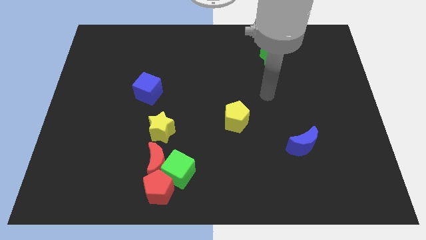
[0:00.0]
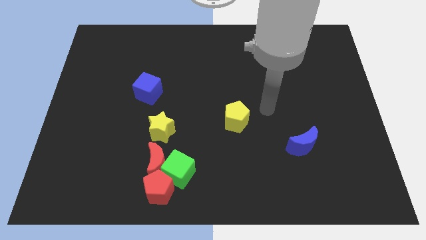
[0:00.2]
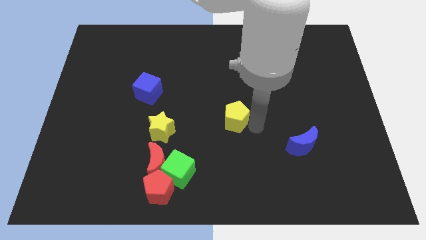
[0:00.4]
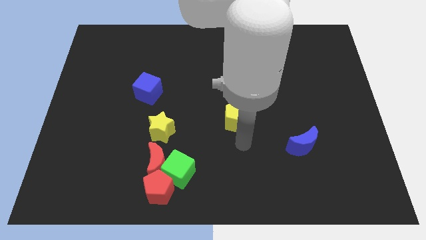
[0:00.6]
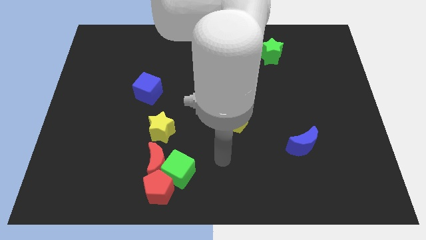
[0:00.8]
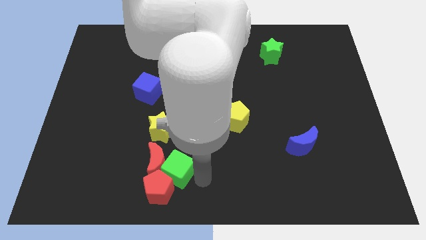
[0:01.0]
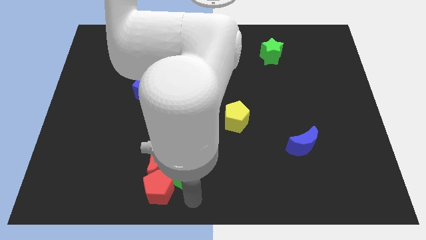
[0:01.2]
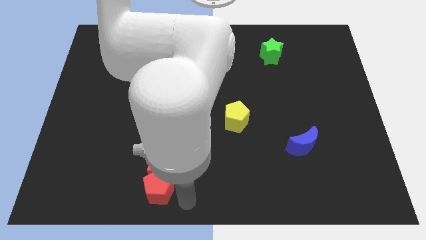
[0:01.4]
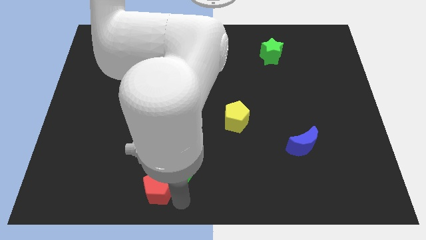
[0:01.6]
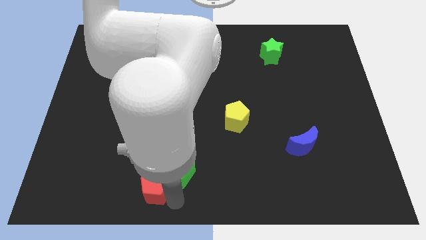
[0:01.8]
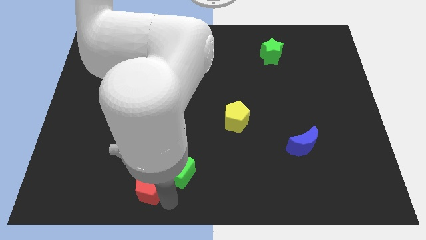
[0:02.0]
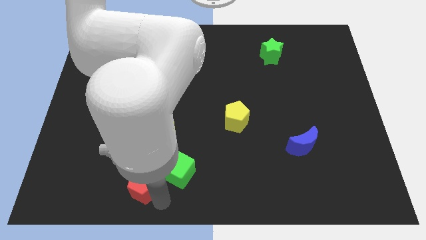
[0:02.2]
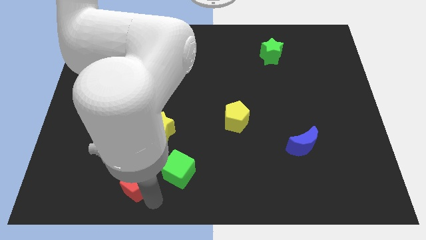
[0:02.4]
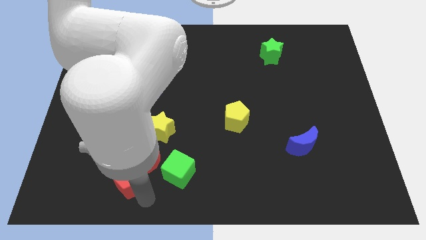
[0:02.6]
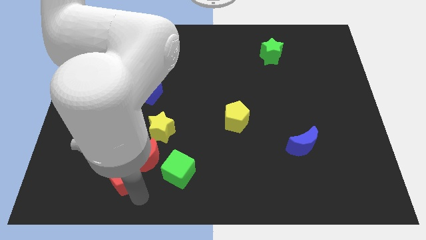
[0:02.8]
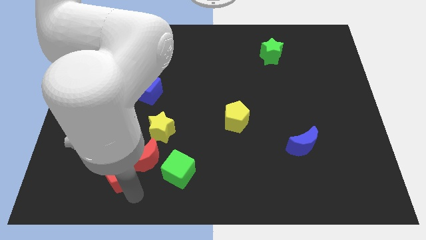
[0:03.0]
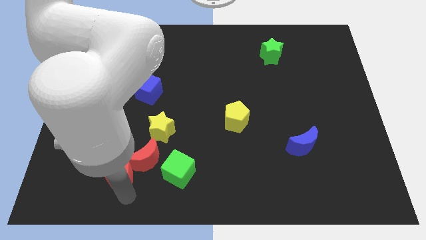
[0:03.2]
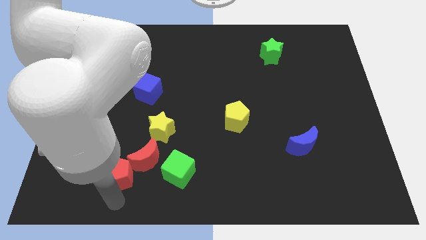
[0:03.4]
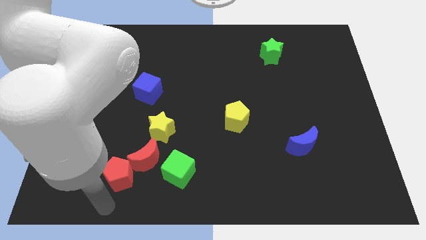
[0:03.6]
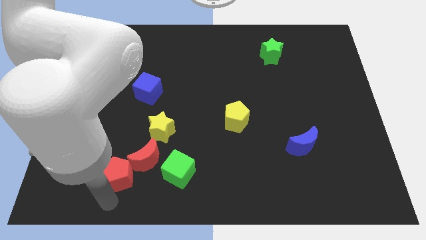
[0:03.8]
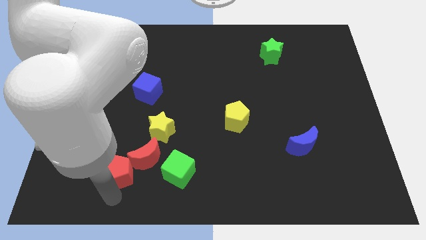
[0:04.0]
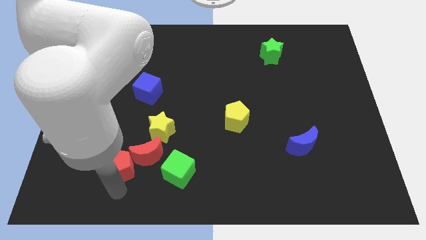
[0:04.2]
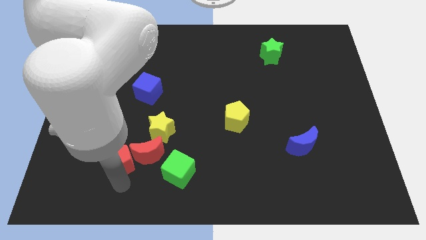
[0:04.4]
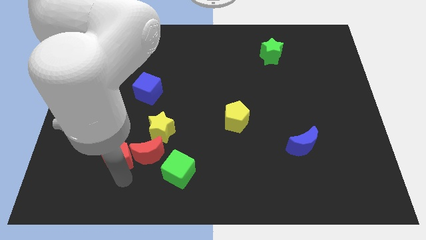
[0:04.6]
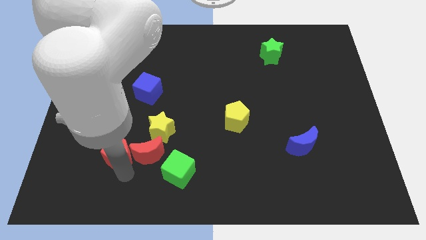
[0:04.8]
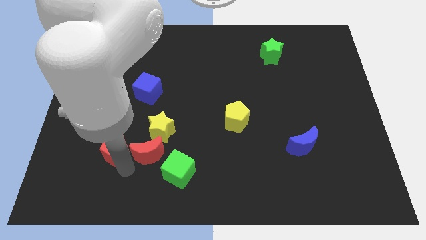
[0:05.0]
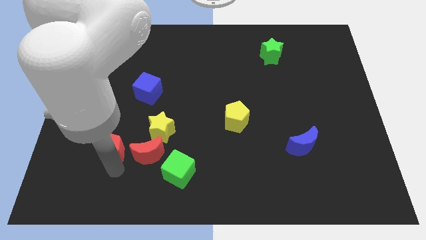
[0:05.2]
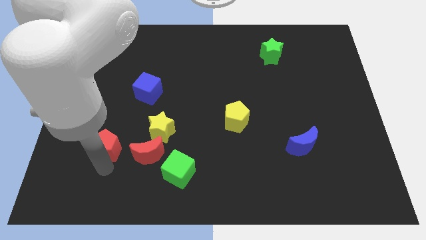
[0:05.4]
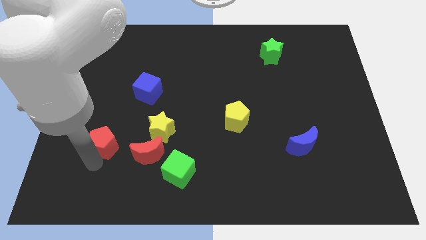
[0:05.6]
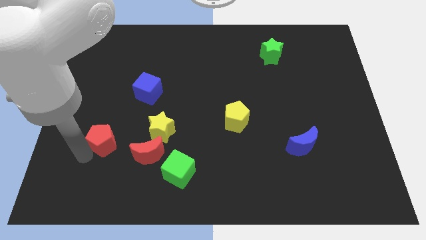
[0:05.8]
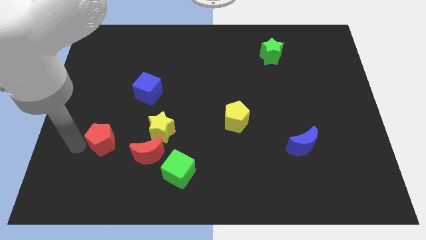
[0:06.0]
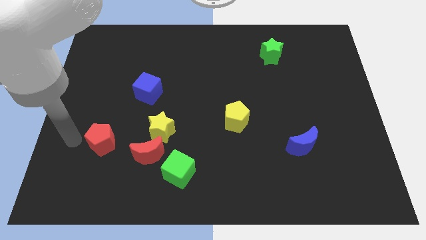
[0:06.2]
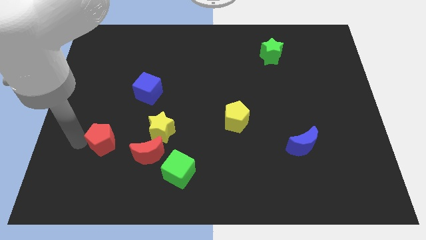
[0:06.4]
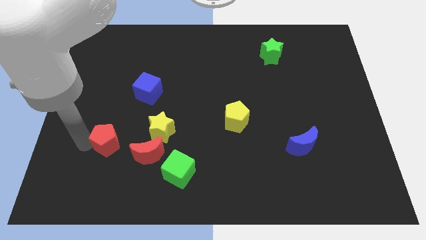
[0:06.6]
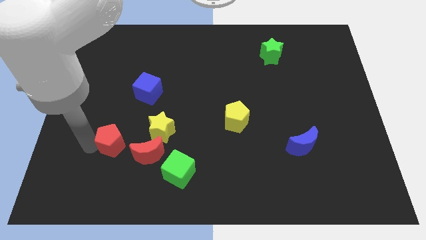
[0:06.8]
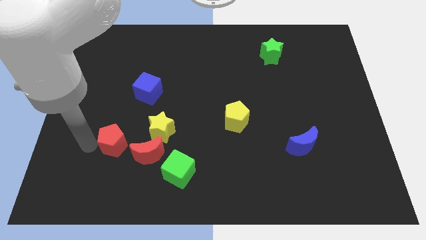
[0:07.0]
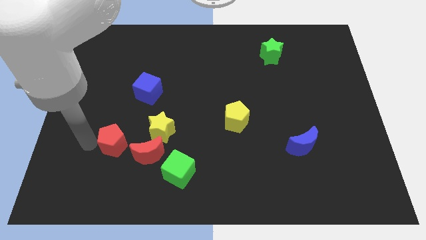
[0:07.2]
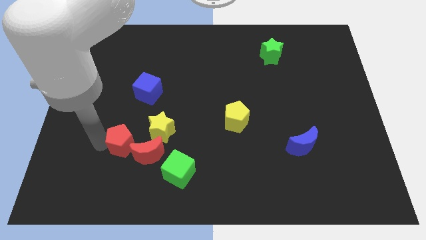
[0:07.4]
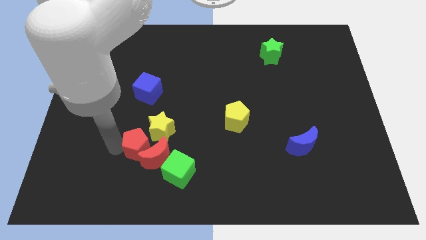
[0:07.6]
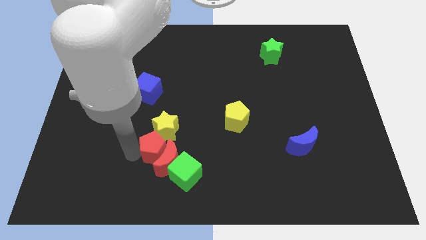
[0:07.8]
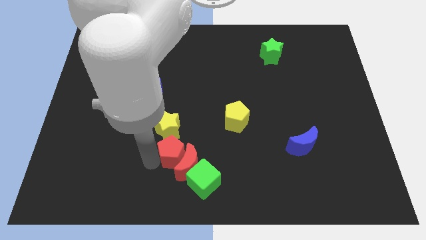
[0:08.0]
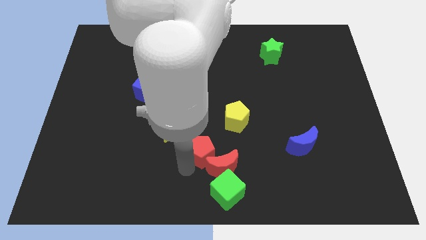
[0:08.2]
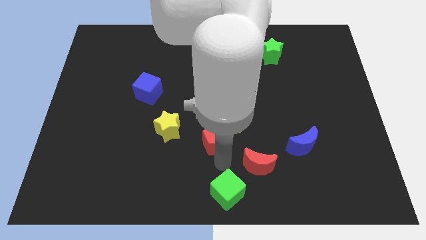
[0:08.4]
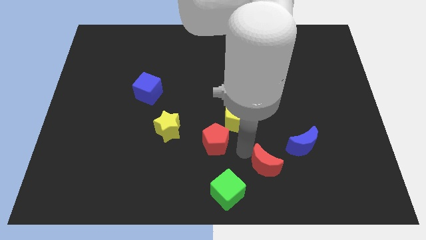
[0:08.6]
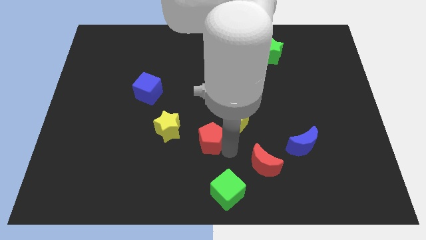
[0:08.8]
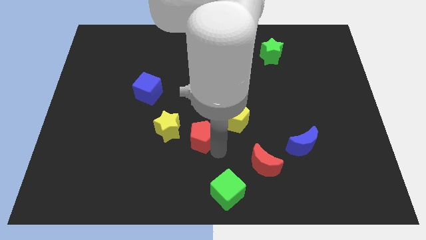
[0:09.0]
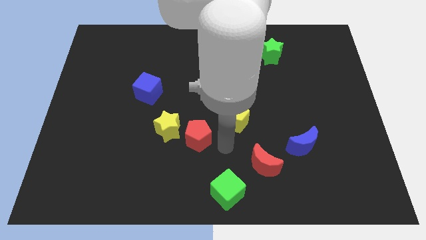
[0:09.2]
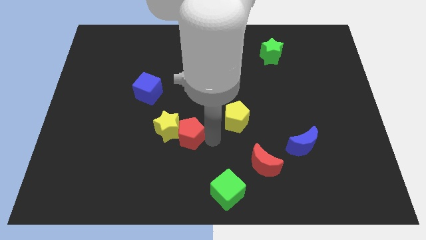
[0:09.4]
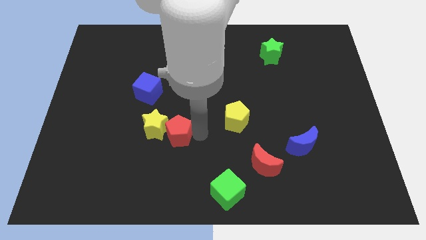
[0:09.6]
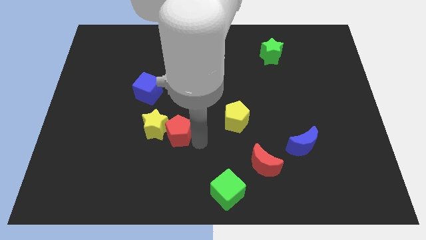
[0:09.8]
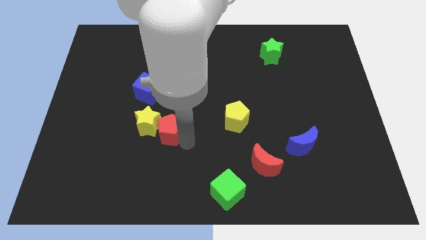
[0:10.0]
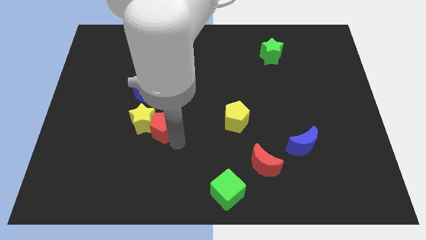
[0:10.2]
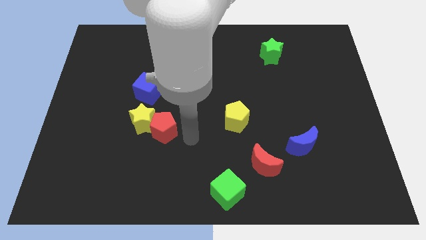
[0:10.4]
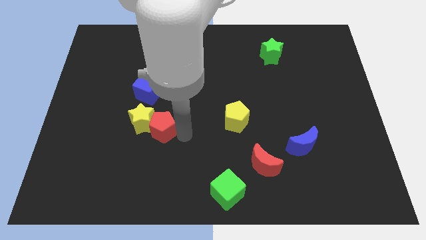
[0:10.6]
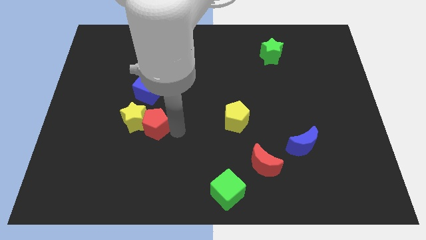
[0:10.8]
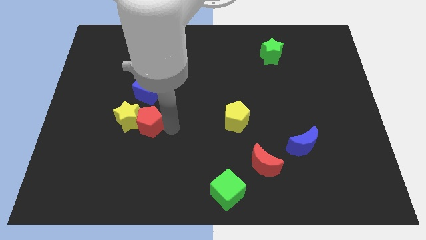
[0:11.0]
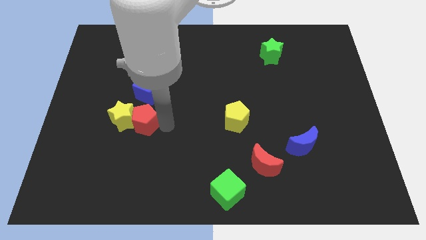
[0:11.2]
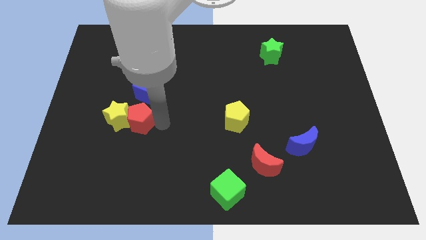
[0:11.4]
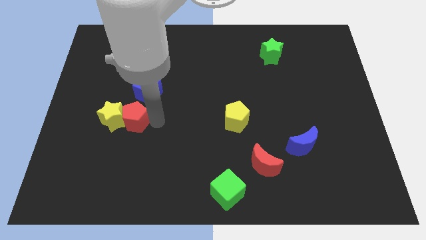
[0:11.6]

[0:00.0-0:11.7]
put the red pentagon diagonally down and to the left of the blue cube

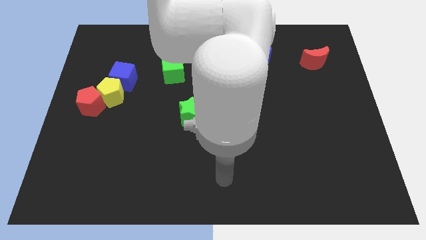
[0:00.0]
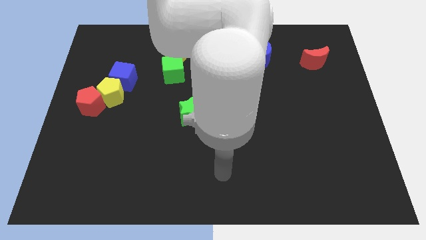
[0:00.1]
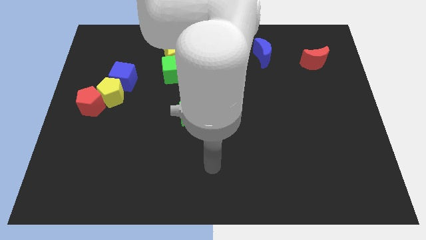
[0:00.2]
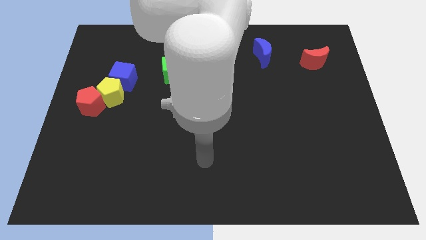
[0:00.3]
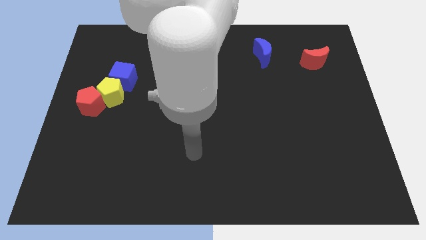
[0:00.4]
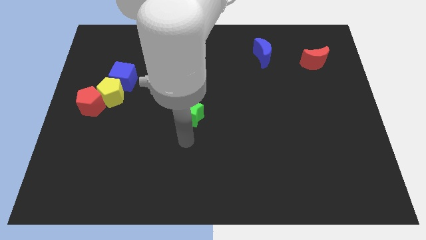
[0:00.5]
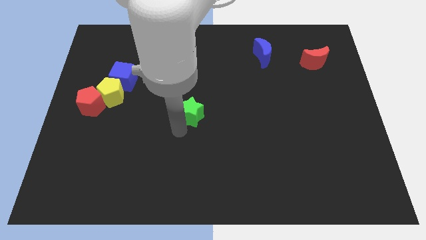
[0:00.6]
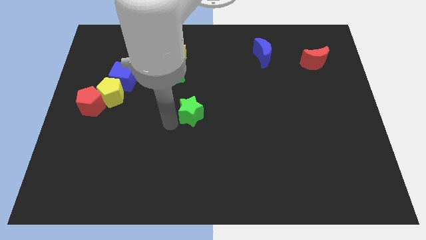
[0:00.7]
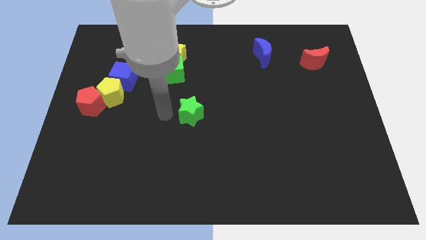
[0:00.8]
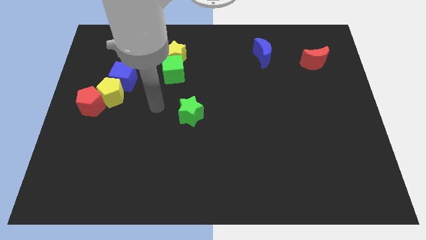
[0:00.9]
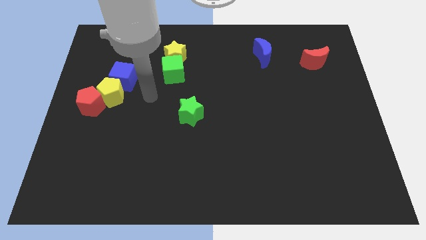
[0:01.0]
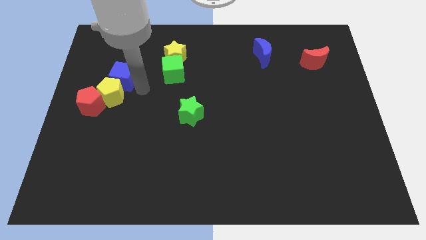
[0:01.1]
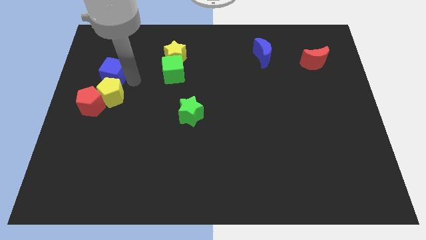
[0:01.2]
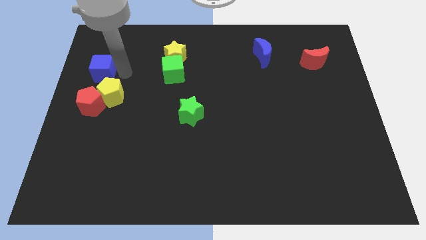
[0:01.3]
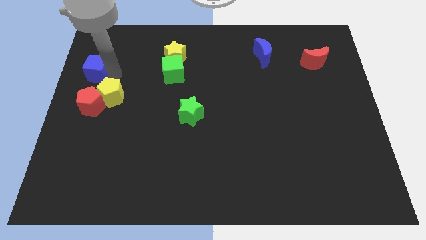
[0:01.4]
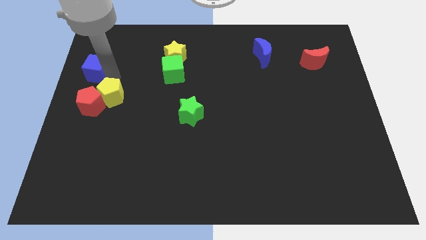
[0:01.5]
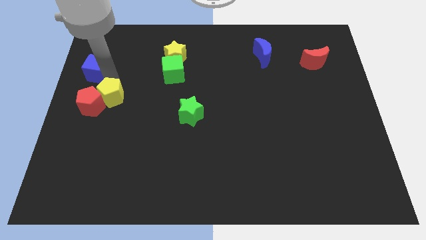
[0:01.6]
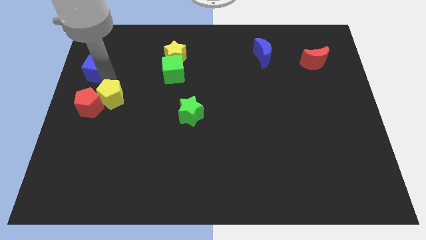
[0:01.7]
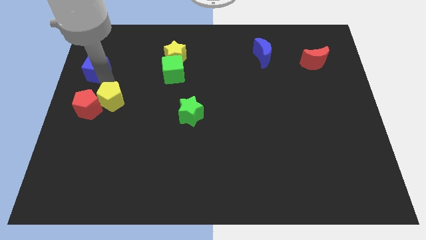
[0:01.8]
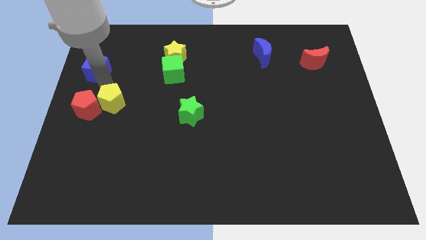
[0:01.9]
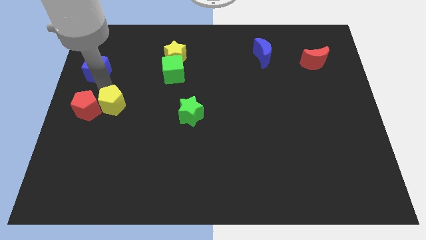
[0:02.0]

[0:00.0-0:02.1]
push the yellow pentagon to the bottom right side of the red pentagon
